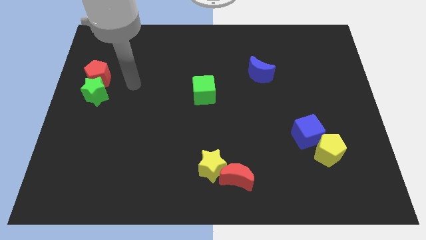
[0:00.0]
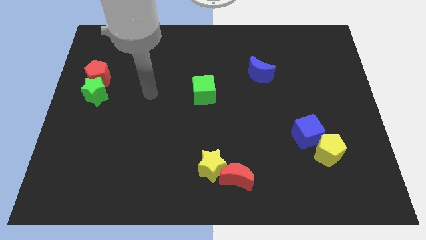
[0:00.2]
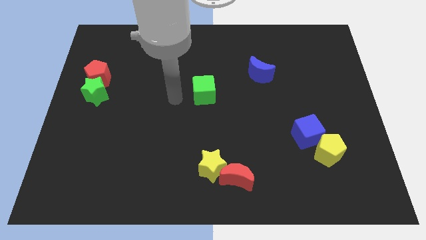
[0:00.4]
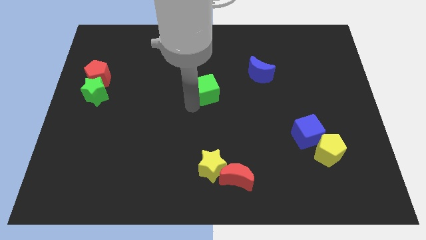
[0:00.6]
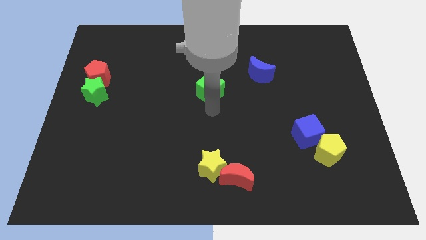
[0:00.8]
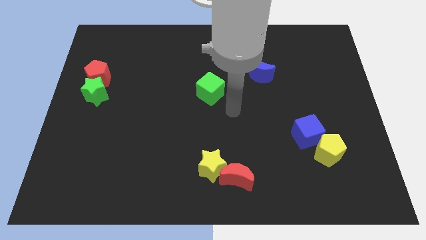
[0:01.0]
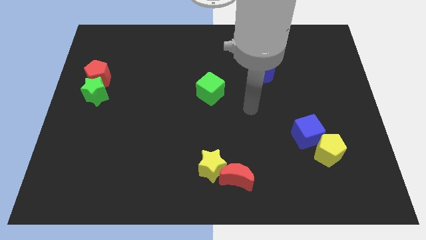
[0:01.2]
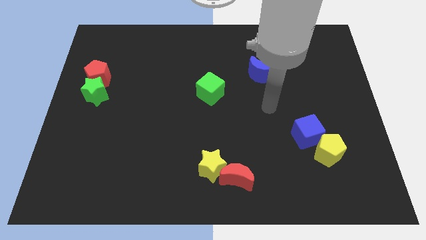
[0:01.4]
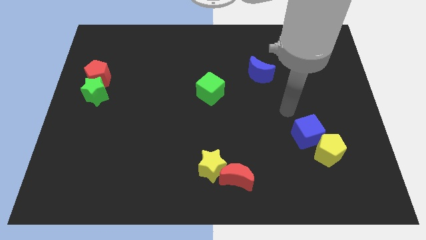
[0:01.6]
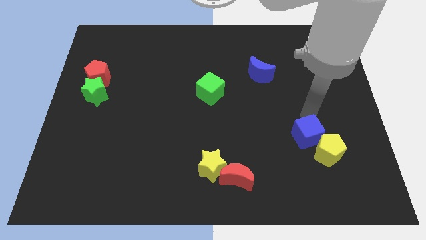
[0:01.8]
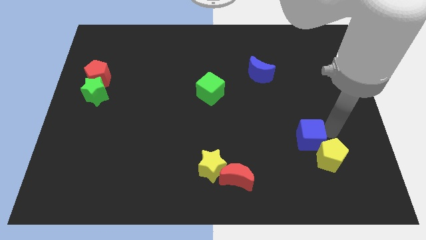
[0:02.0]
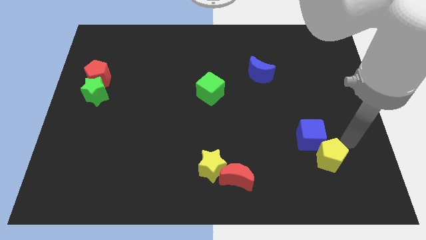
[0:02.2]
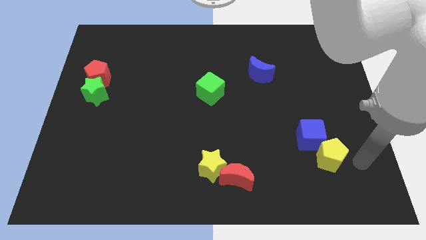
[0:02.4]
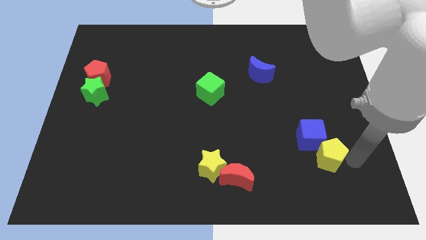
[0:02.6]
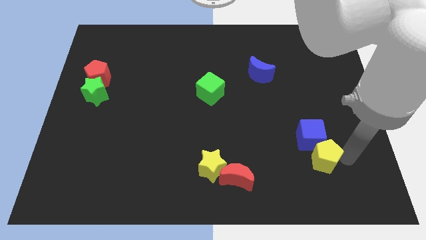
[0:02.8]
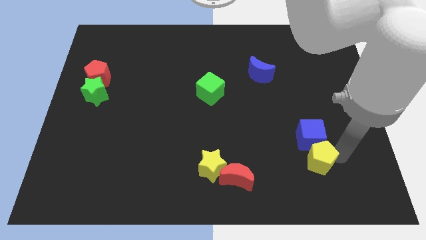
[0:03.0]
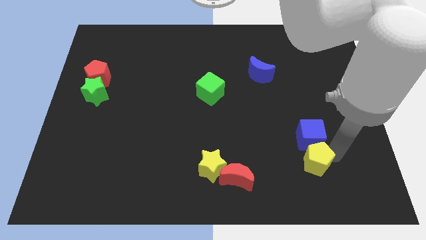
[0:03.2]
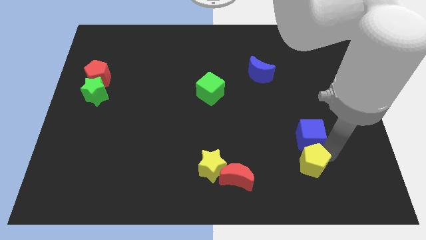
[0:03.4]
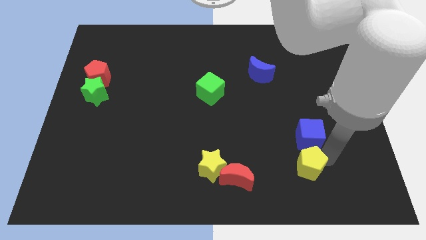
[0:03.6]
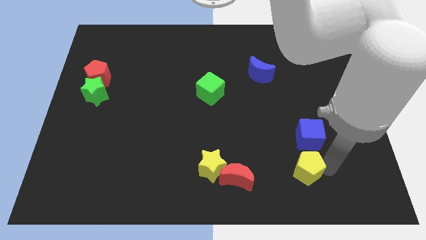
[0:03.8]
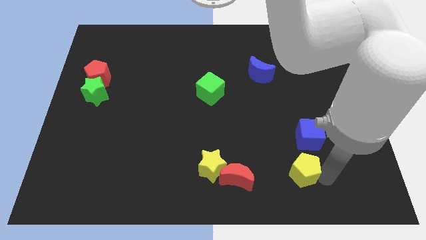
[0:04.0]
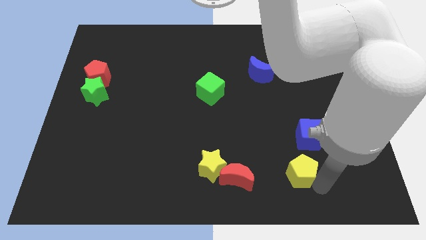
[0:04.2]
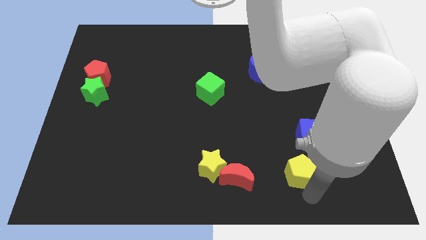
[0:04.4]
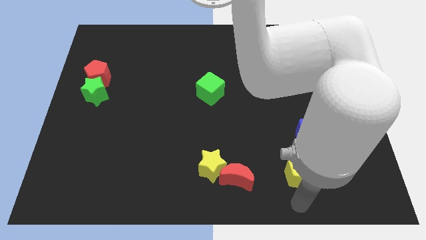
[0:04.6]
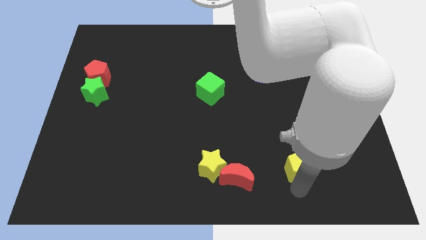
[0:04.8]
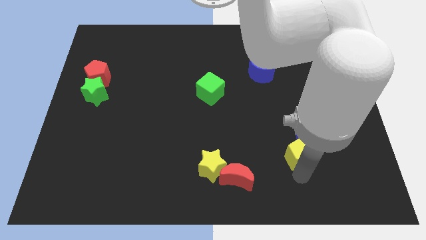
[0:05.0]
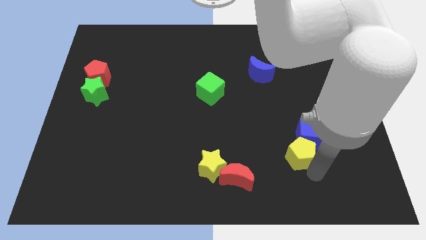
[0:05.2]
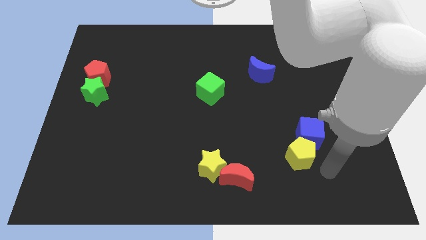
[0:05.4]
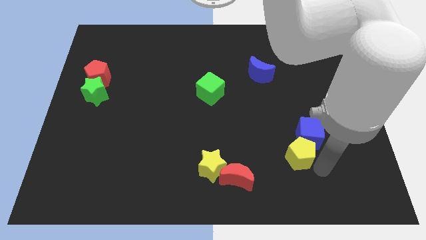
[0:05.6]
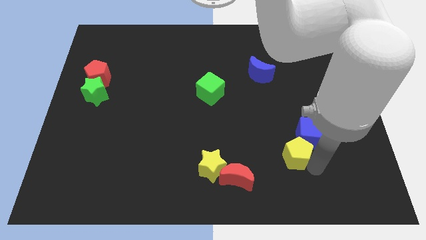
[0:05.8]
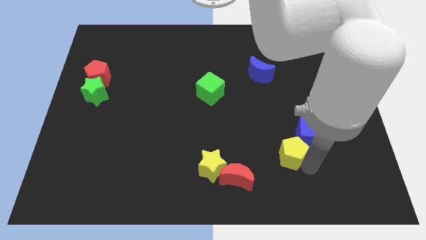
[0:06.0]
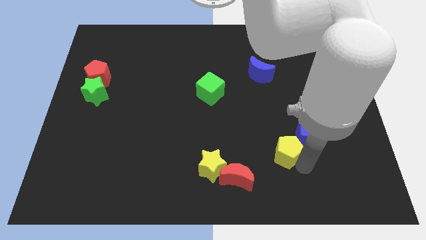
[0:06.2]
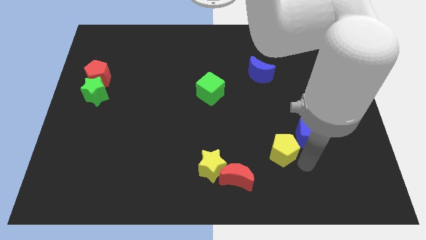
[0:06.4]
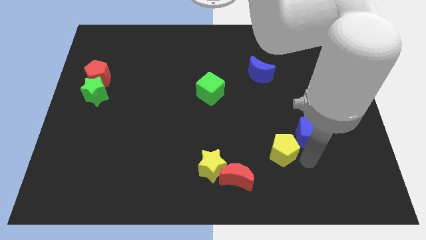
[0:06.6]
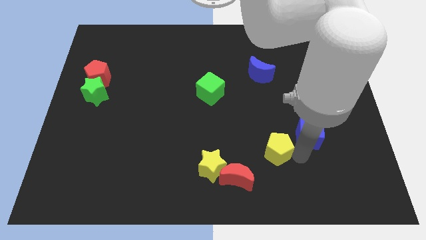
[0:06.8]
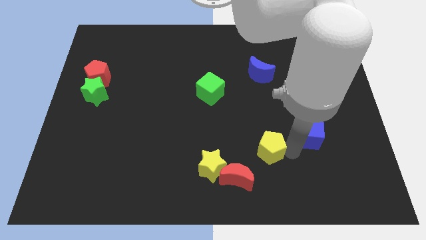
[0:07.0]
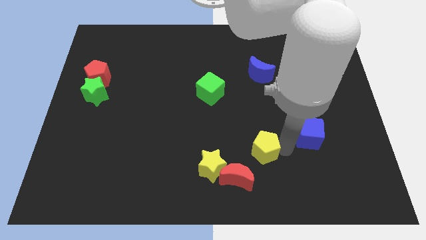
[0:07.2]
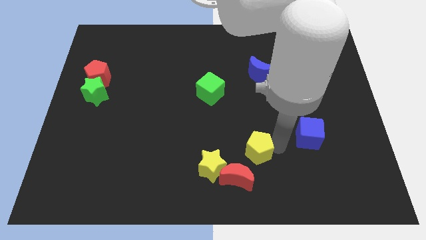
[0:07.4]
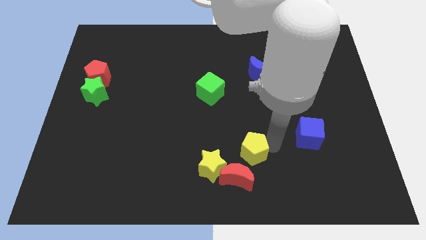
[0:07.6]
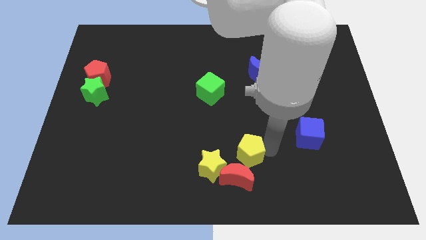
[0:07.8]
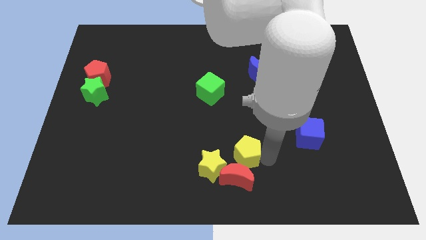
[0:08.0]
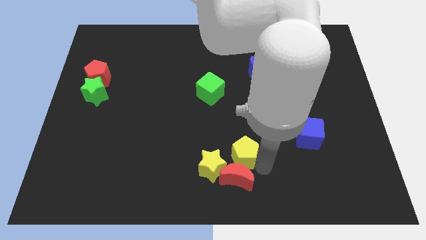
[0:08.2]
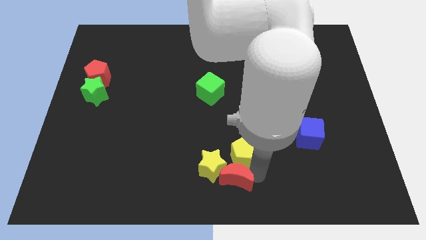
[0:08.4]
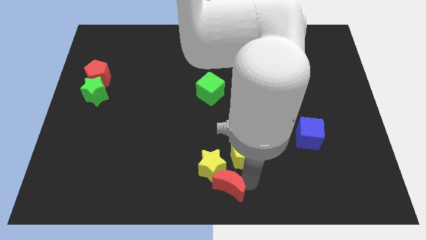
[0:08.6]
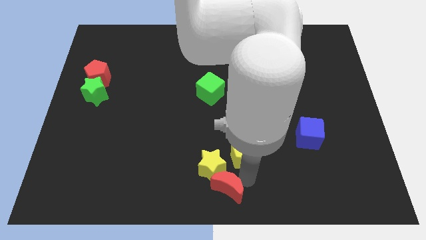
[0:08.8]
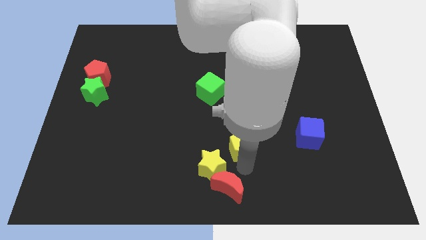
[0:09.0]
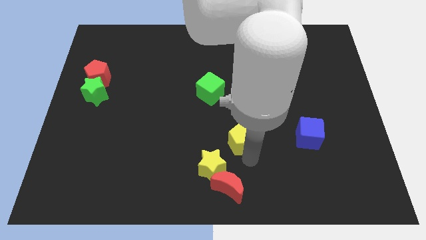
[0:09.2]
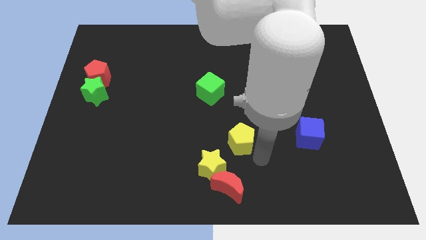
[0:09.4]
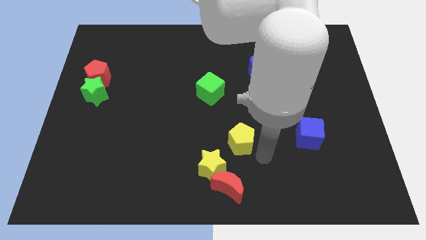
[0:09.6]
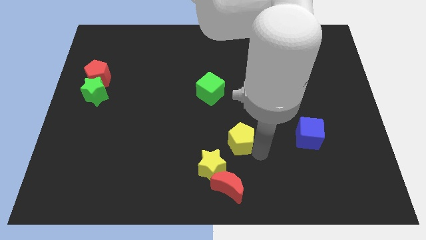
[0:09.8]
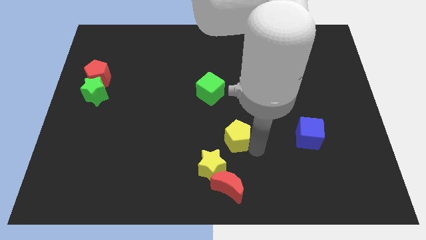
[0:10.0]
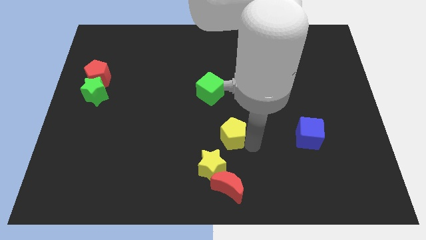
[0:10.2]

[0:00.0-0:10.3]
push the yellow pentagon to the left

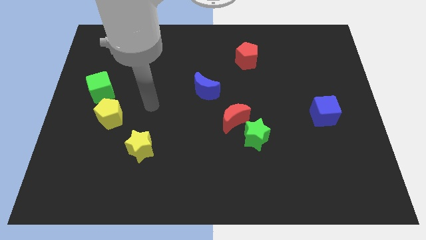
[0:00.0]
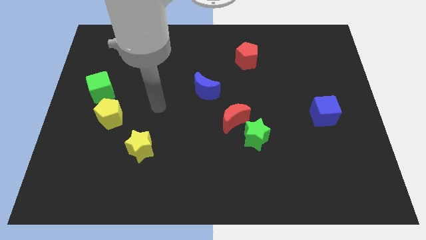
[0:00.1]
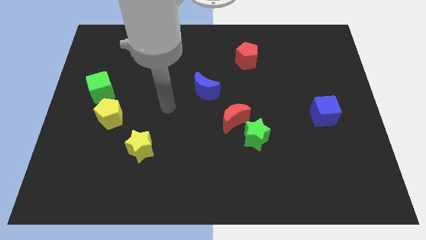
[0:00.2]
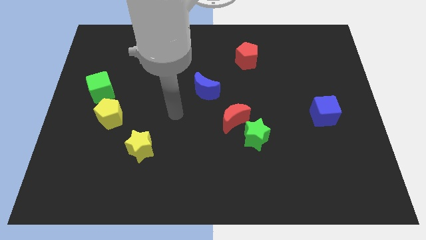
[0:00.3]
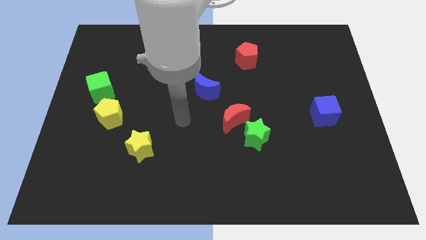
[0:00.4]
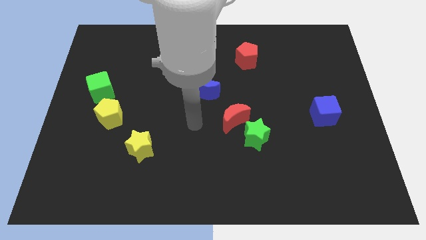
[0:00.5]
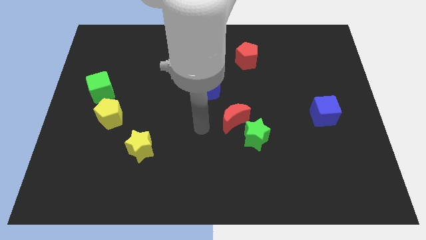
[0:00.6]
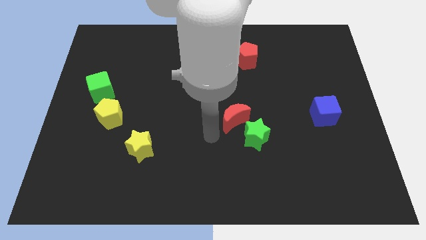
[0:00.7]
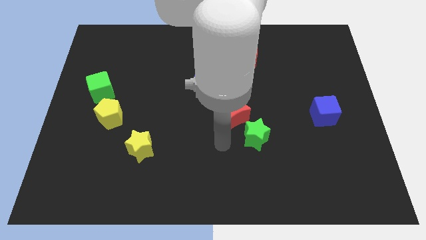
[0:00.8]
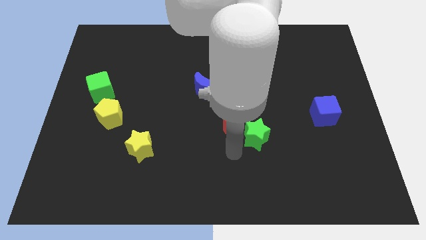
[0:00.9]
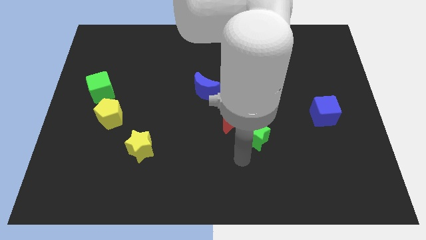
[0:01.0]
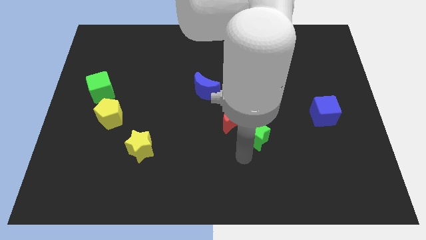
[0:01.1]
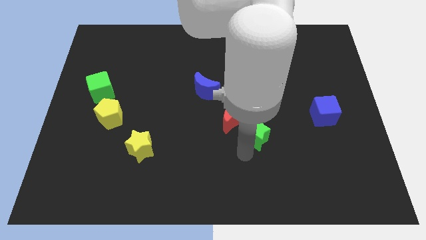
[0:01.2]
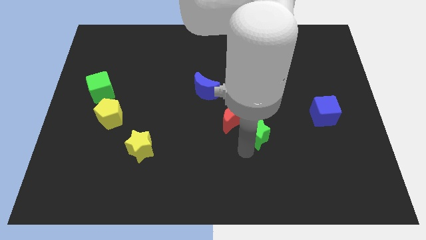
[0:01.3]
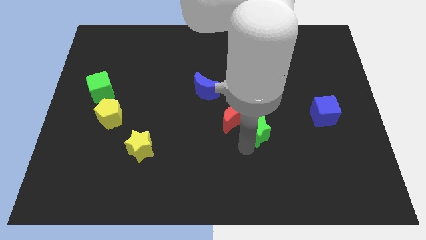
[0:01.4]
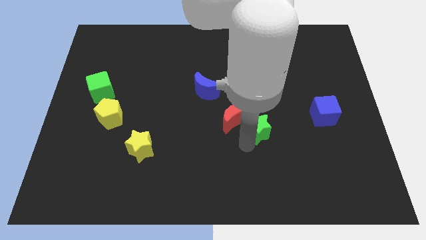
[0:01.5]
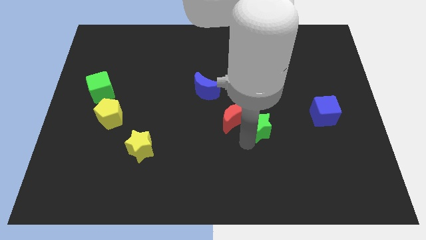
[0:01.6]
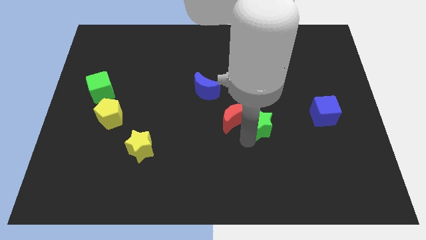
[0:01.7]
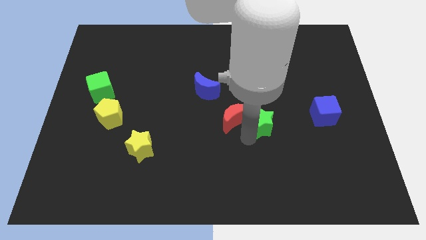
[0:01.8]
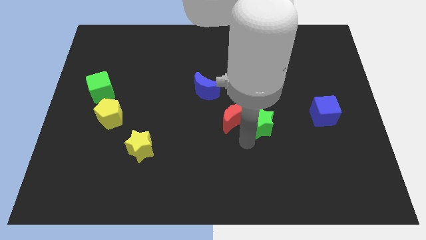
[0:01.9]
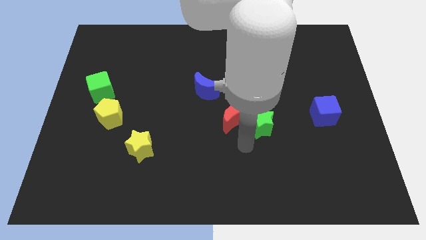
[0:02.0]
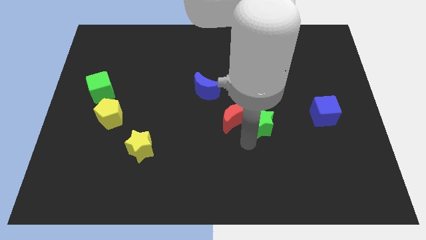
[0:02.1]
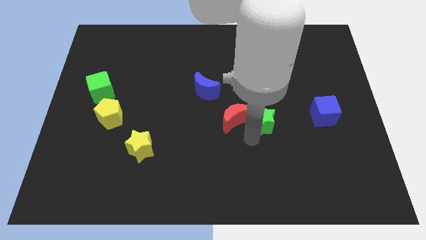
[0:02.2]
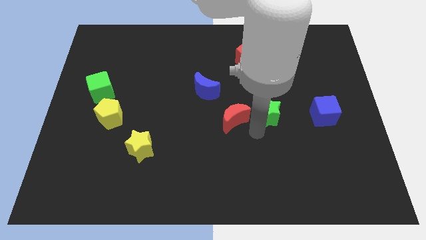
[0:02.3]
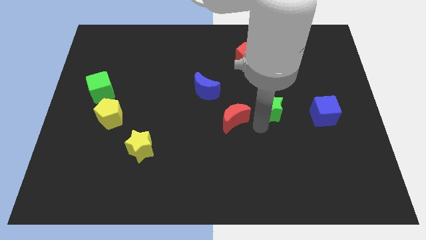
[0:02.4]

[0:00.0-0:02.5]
move the green star up and then right a little bit

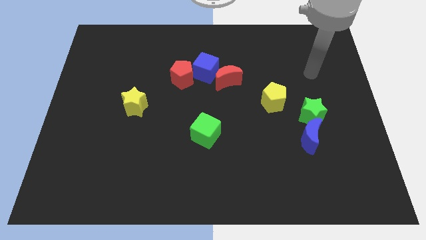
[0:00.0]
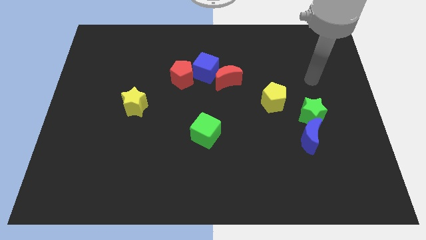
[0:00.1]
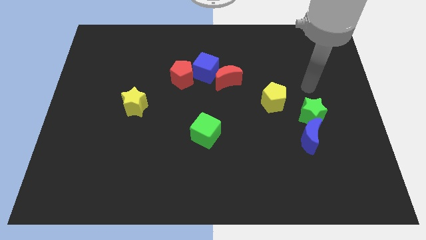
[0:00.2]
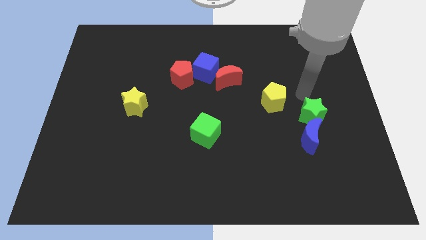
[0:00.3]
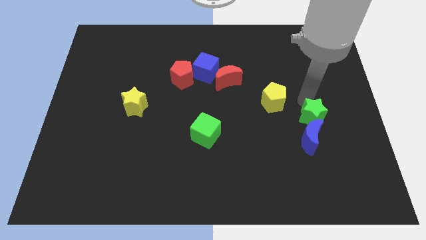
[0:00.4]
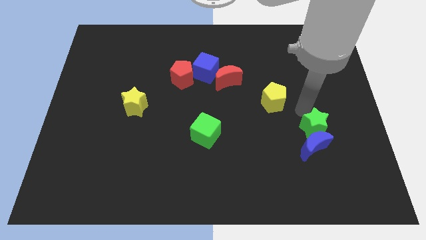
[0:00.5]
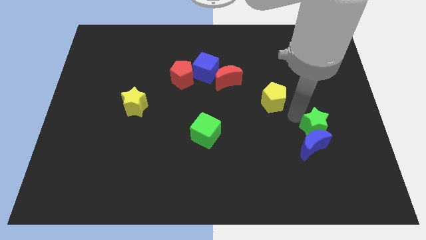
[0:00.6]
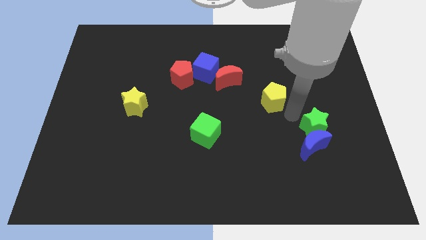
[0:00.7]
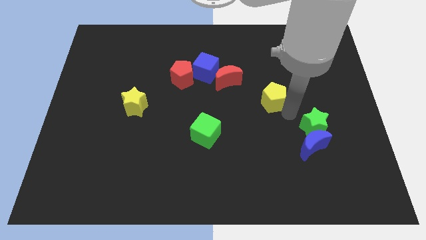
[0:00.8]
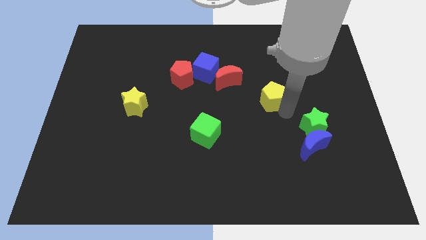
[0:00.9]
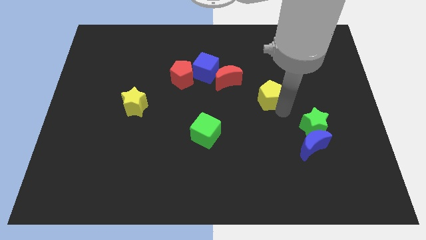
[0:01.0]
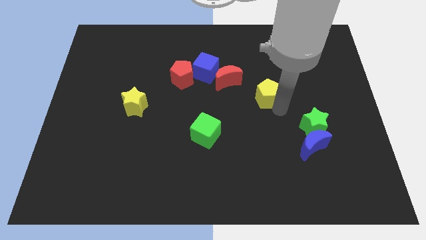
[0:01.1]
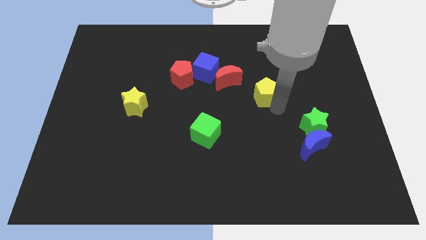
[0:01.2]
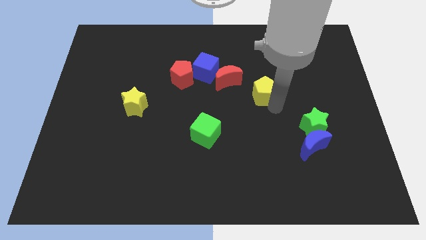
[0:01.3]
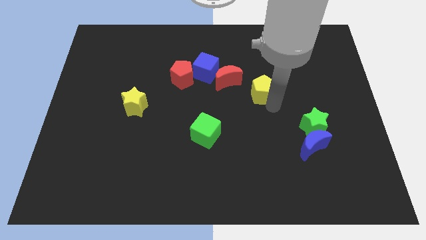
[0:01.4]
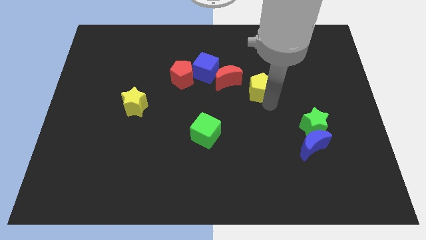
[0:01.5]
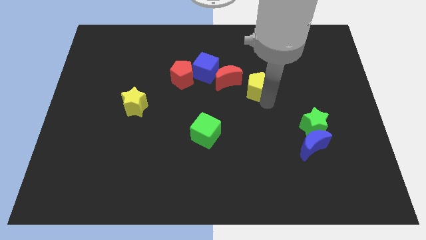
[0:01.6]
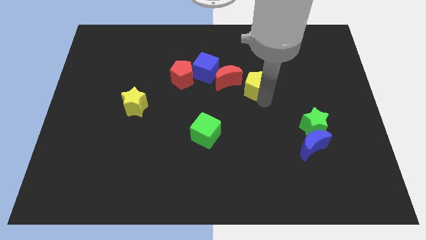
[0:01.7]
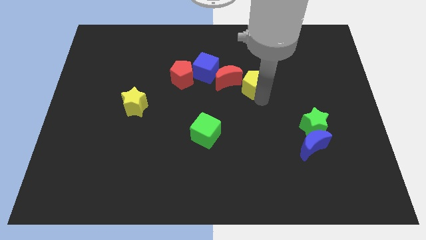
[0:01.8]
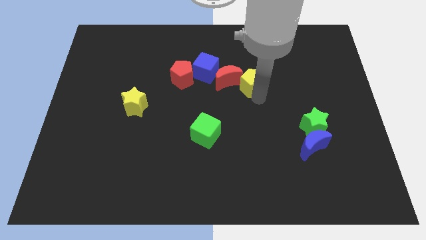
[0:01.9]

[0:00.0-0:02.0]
push the yellow pentagon upwards and left diagonally a little
